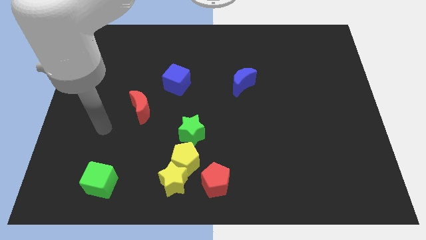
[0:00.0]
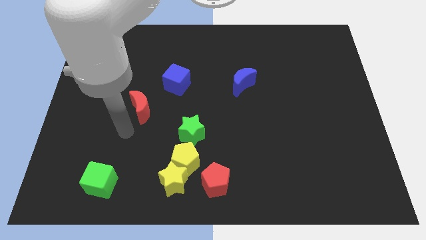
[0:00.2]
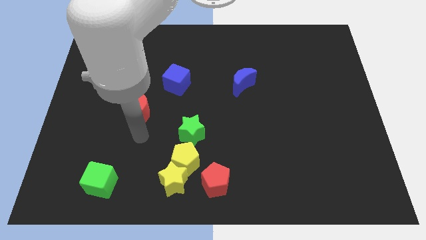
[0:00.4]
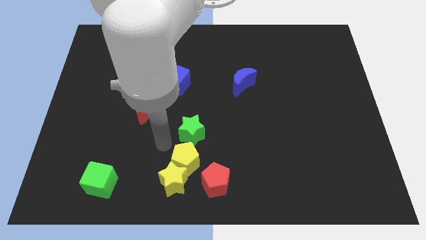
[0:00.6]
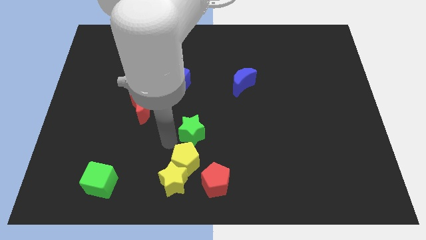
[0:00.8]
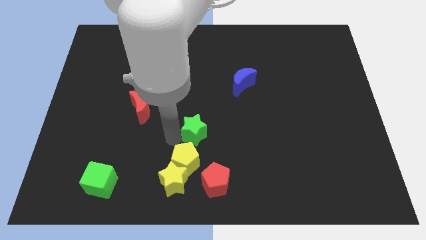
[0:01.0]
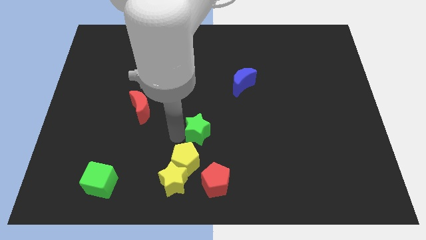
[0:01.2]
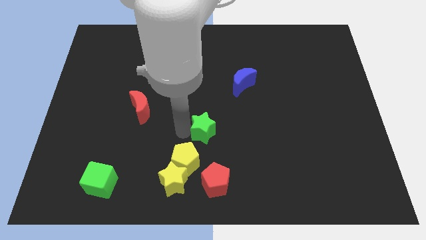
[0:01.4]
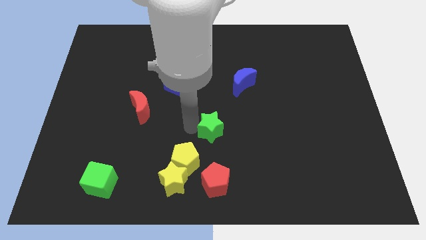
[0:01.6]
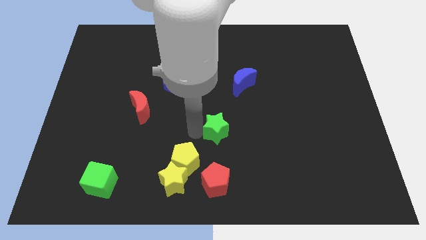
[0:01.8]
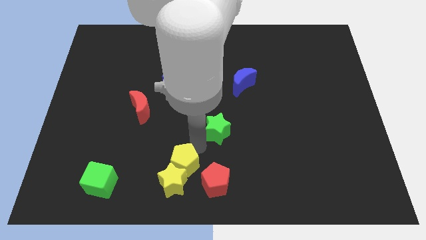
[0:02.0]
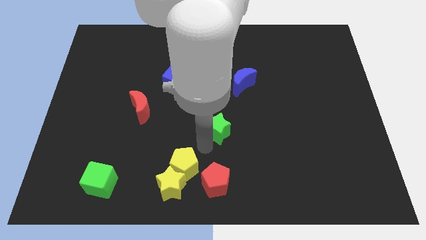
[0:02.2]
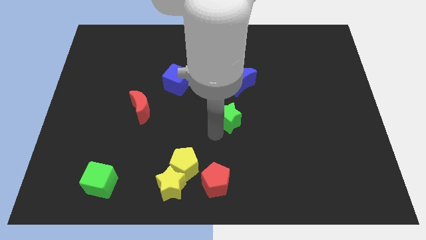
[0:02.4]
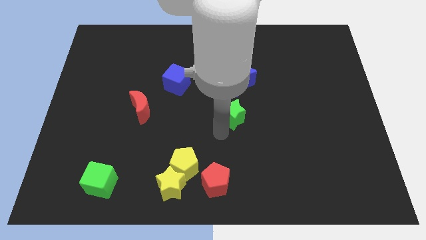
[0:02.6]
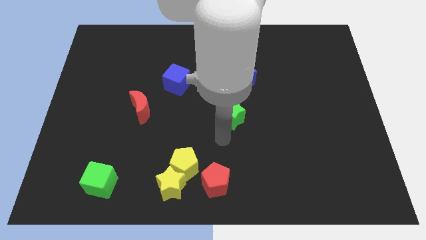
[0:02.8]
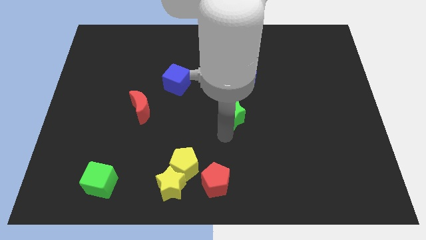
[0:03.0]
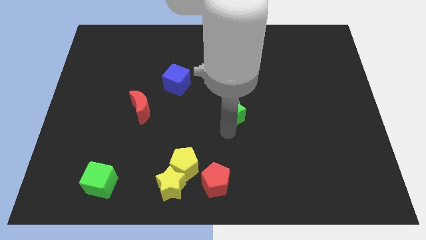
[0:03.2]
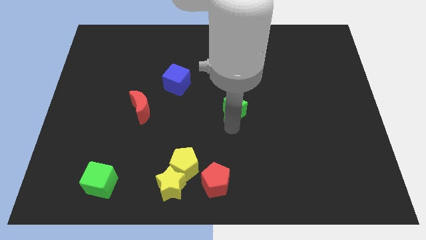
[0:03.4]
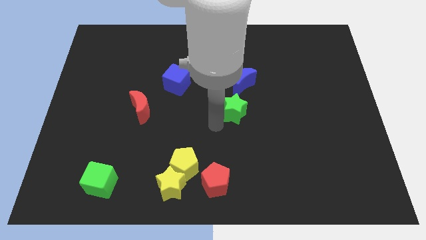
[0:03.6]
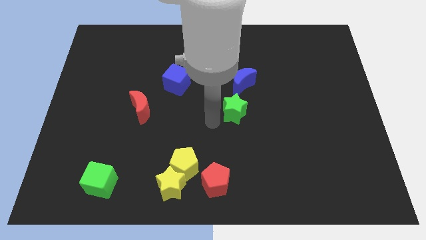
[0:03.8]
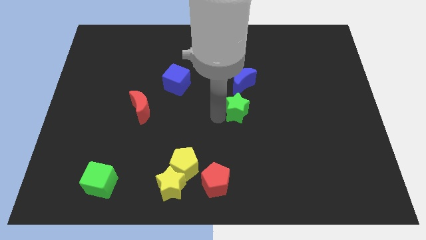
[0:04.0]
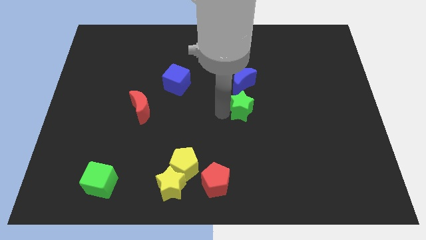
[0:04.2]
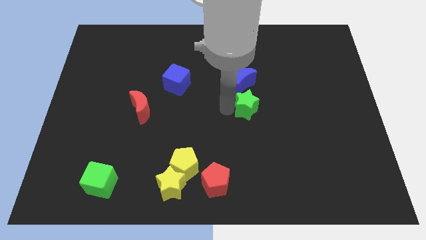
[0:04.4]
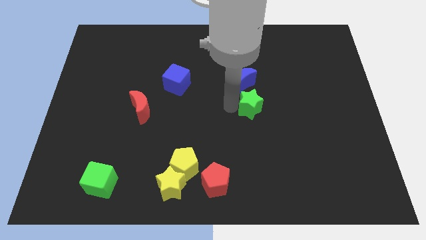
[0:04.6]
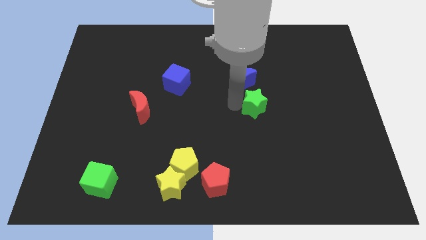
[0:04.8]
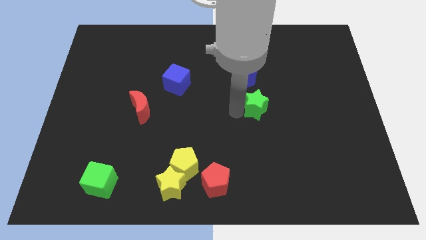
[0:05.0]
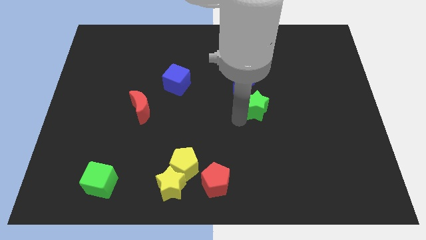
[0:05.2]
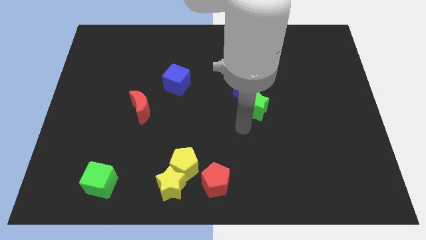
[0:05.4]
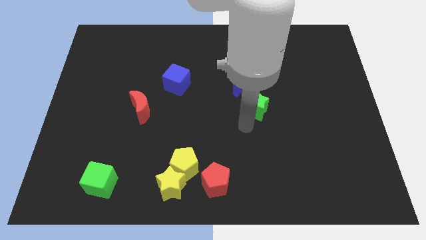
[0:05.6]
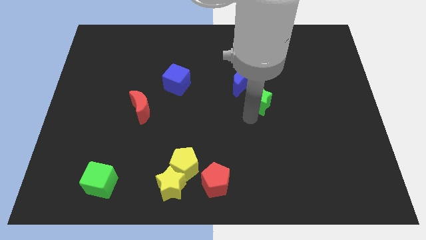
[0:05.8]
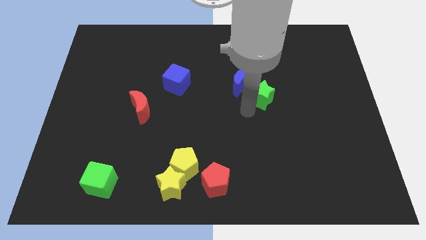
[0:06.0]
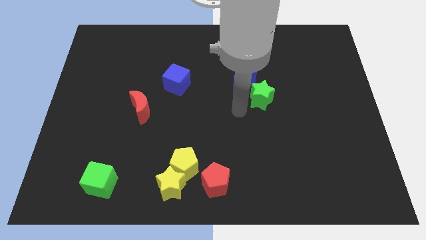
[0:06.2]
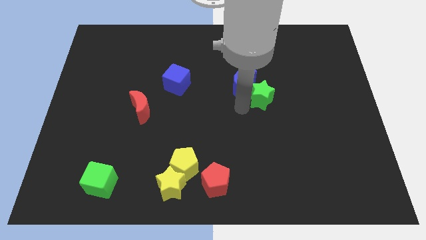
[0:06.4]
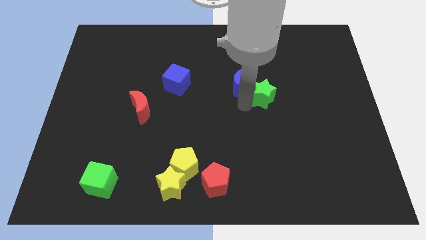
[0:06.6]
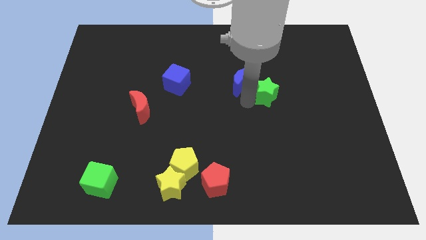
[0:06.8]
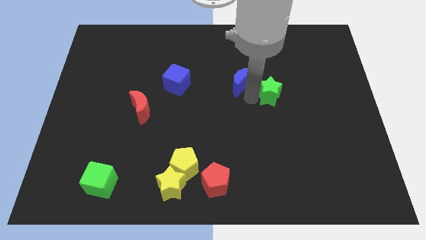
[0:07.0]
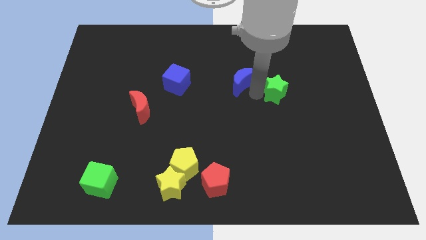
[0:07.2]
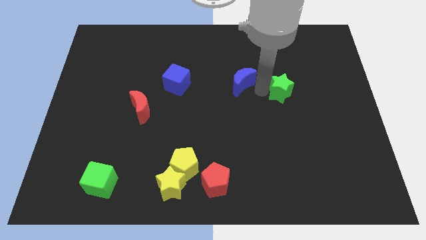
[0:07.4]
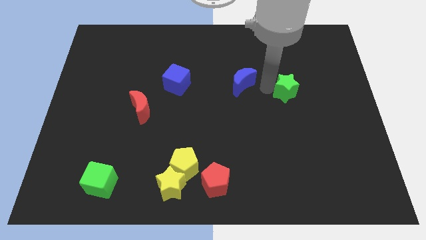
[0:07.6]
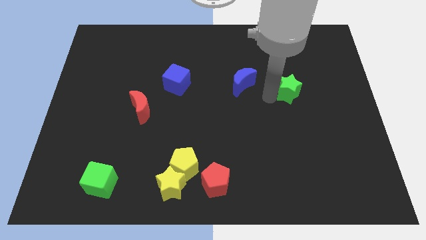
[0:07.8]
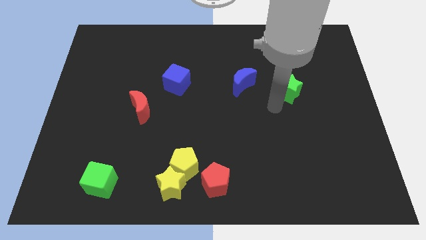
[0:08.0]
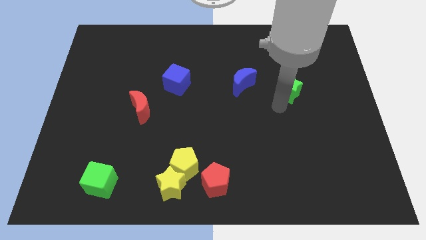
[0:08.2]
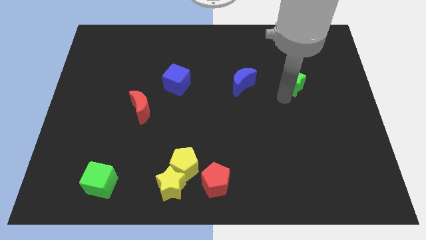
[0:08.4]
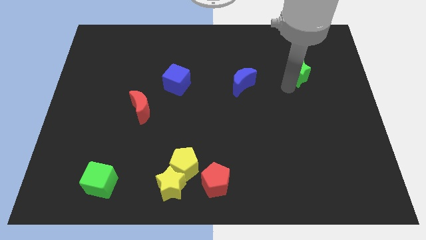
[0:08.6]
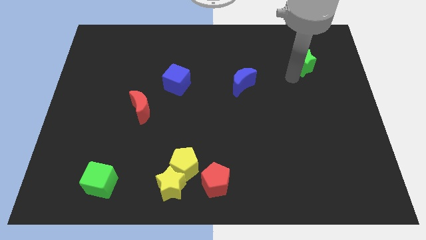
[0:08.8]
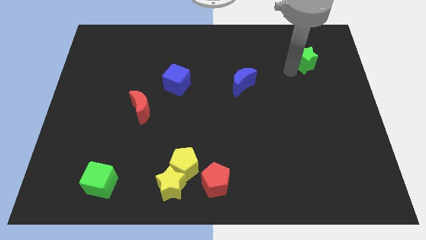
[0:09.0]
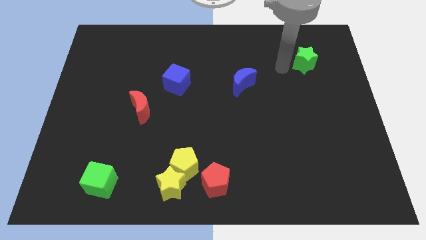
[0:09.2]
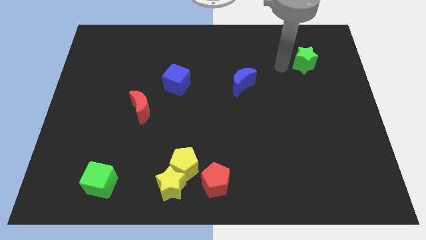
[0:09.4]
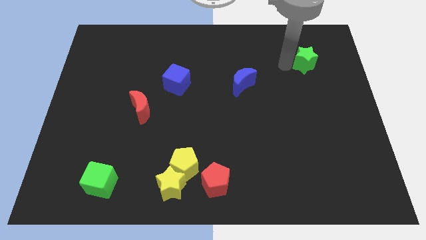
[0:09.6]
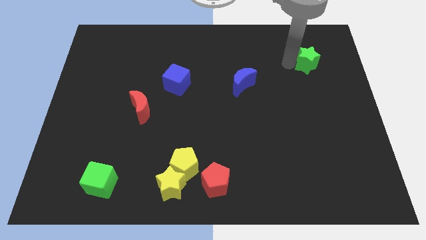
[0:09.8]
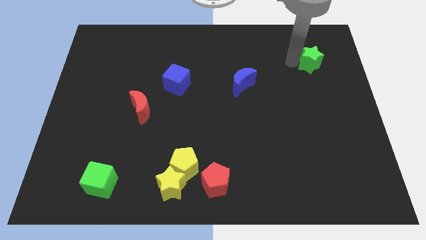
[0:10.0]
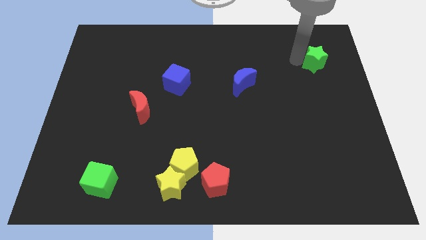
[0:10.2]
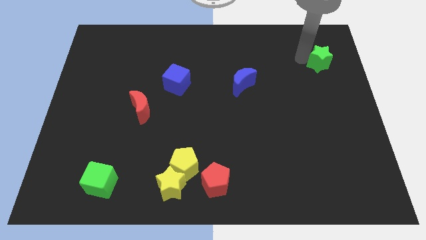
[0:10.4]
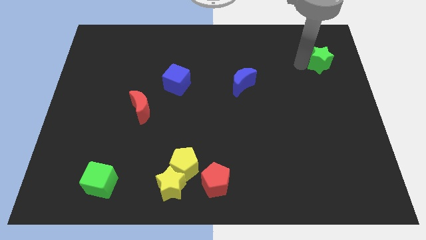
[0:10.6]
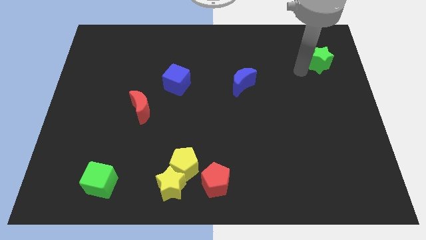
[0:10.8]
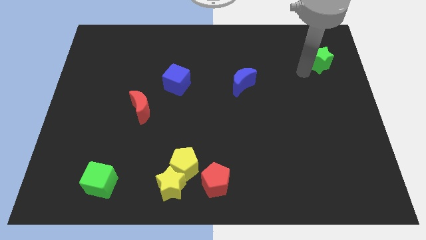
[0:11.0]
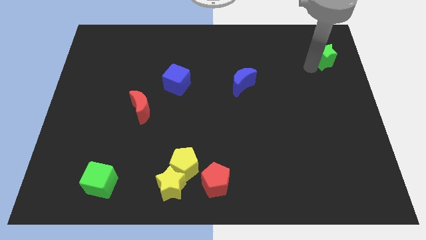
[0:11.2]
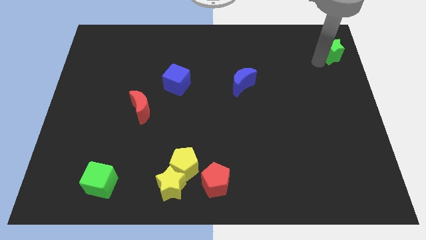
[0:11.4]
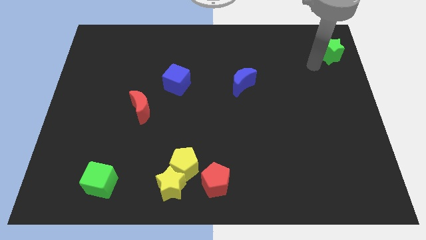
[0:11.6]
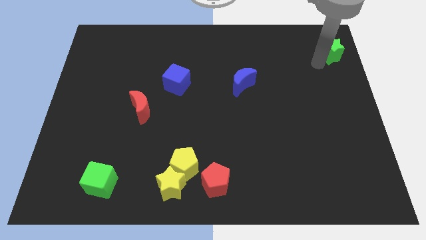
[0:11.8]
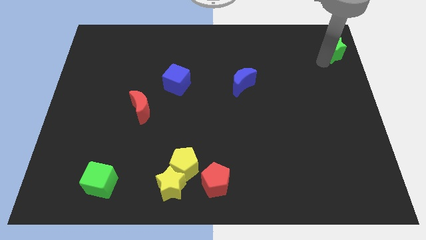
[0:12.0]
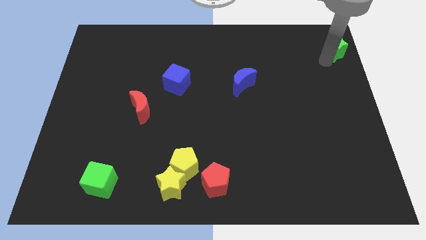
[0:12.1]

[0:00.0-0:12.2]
move the green star to the top right

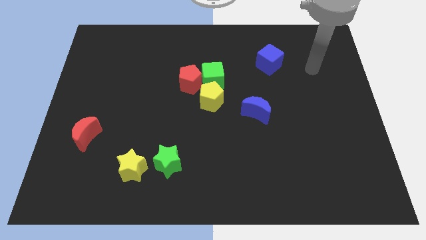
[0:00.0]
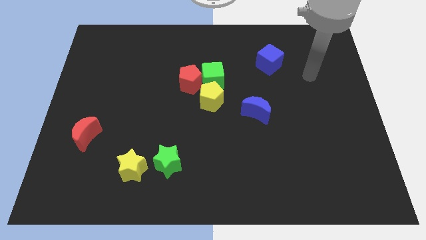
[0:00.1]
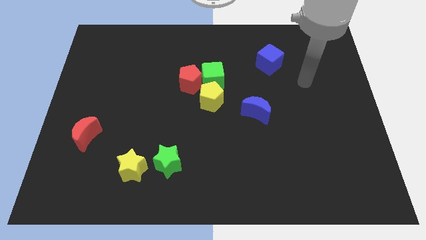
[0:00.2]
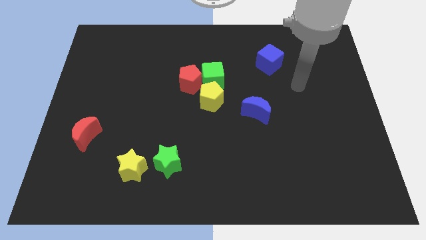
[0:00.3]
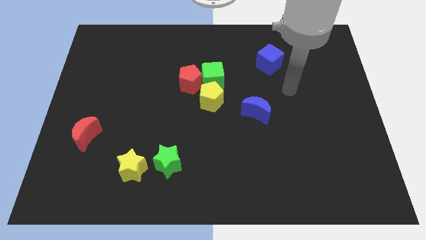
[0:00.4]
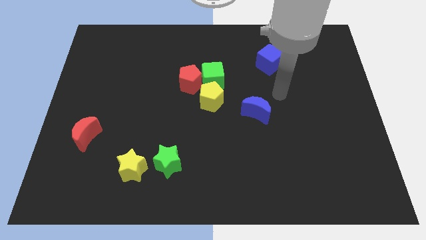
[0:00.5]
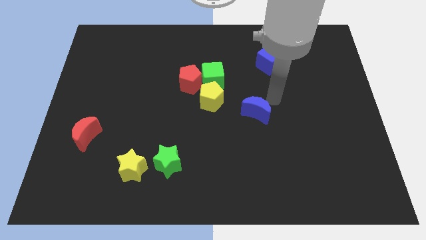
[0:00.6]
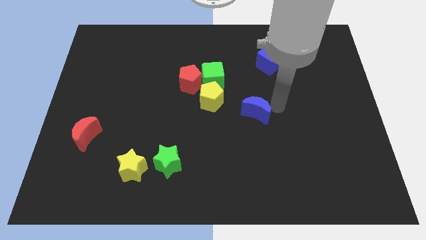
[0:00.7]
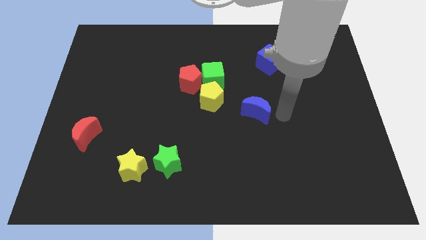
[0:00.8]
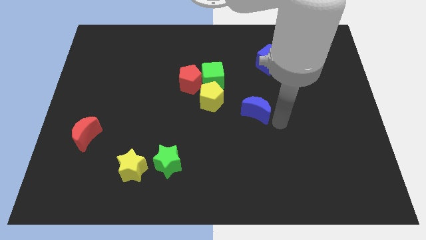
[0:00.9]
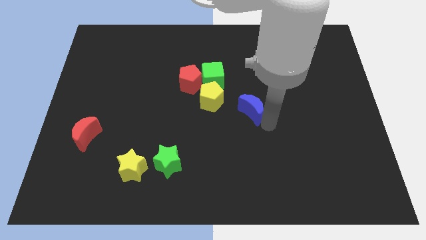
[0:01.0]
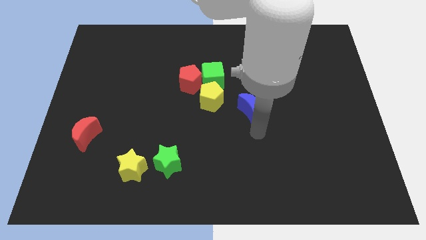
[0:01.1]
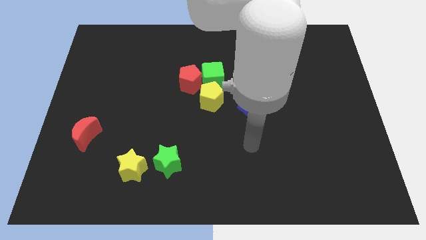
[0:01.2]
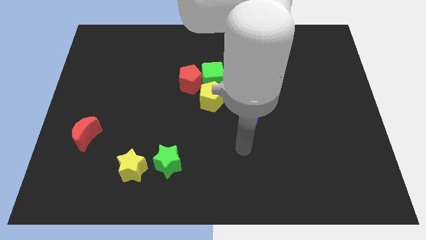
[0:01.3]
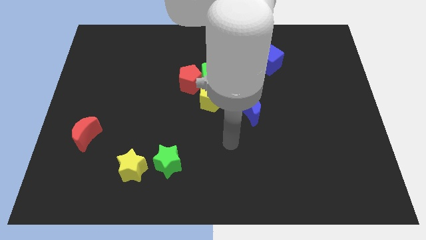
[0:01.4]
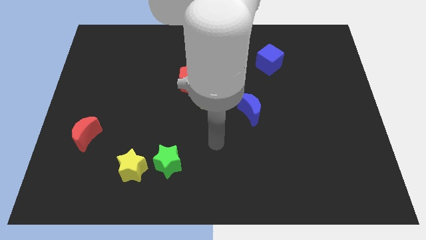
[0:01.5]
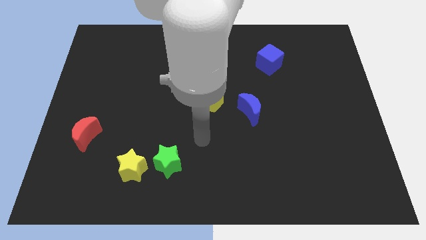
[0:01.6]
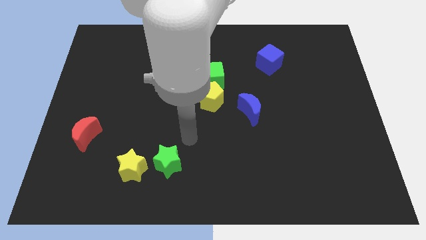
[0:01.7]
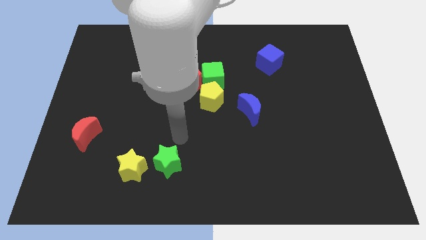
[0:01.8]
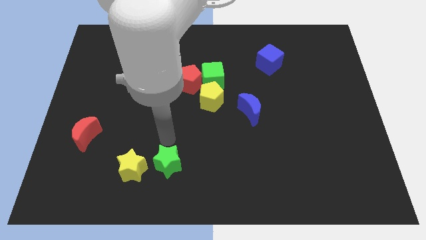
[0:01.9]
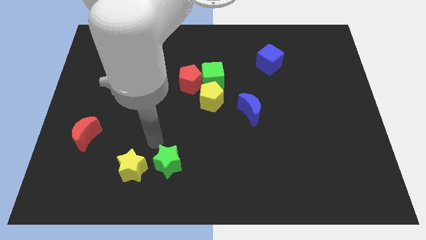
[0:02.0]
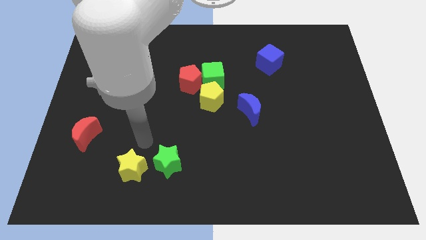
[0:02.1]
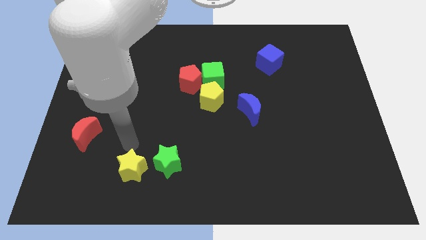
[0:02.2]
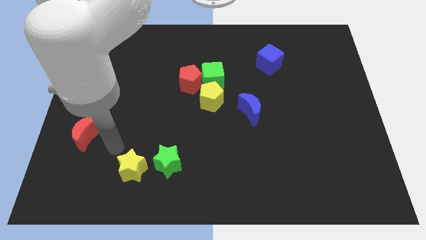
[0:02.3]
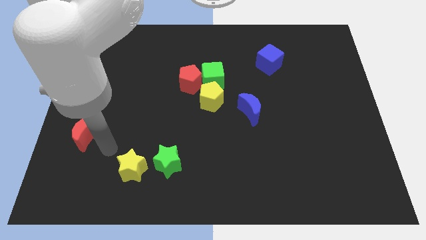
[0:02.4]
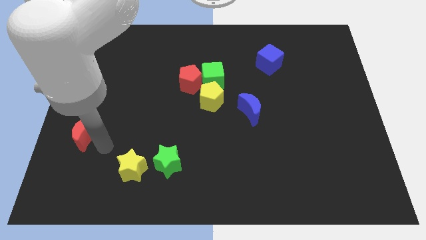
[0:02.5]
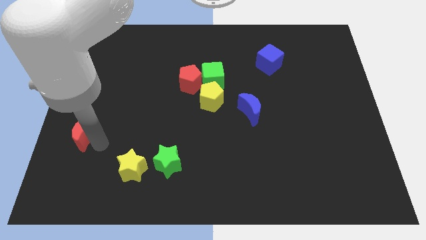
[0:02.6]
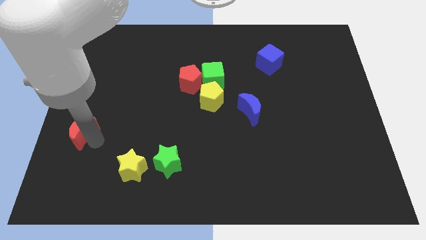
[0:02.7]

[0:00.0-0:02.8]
put the red moon to the center left
